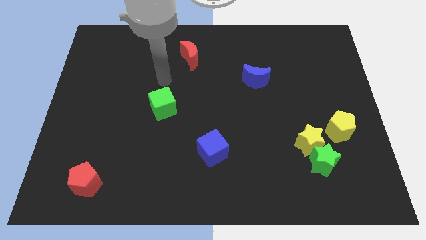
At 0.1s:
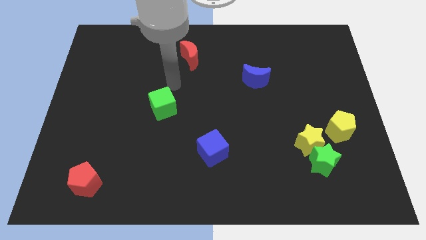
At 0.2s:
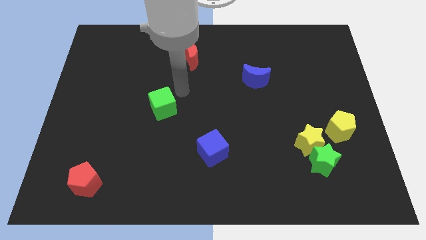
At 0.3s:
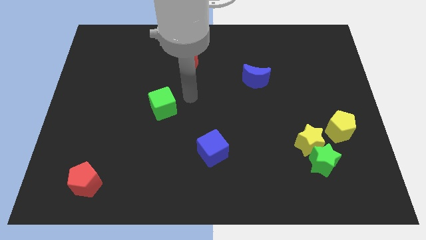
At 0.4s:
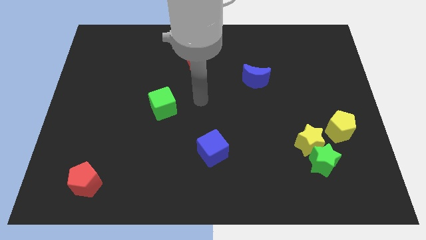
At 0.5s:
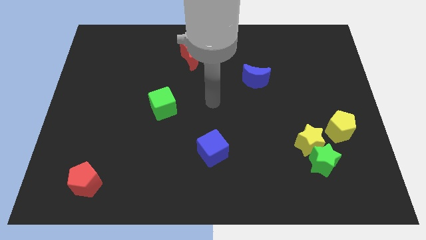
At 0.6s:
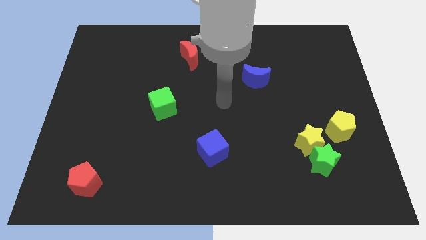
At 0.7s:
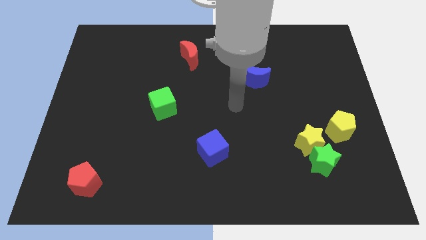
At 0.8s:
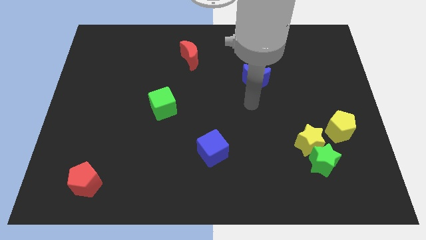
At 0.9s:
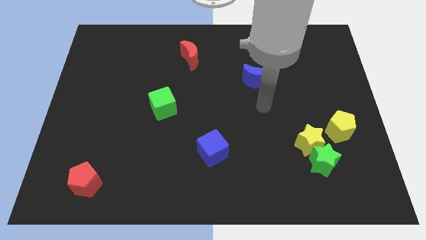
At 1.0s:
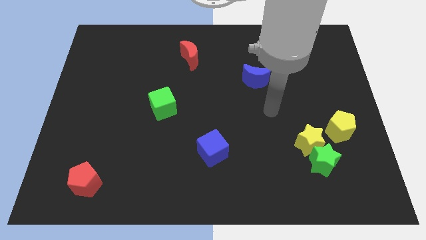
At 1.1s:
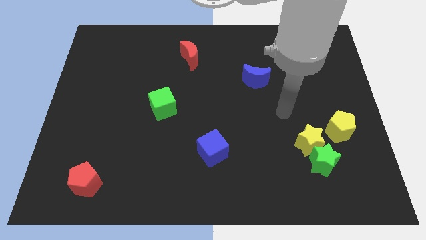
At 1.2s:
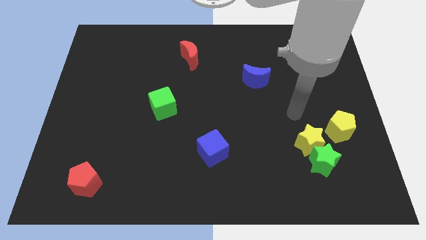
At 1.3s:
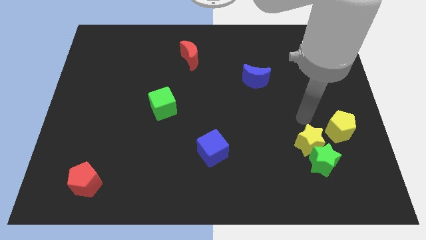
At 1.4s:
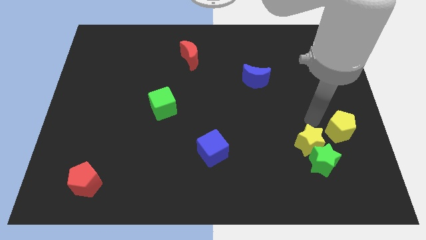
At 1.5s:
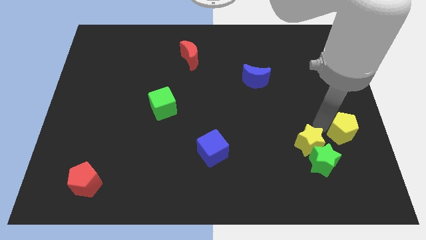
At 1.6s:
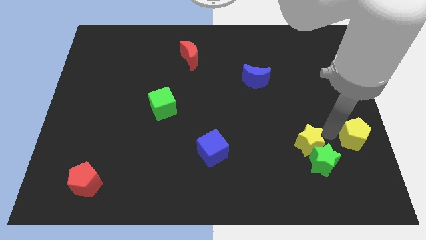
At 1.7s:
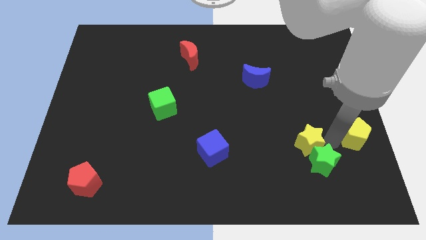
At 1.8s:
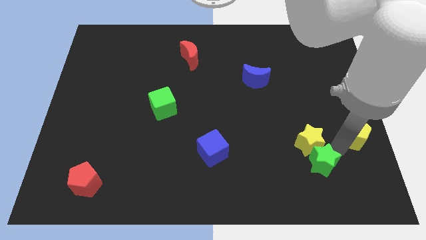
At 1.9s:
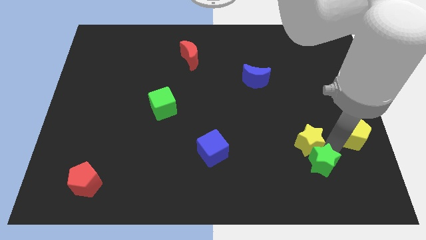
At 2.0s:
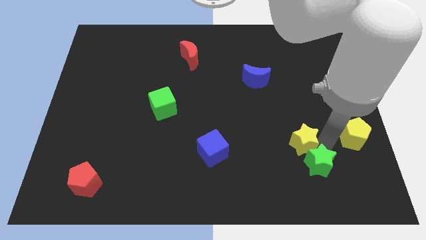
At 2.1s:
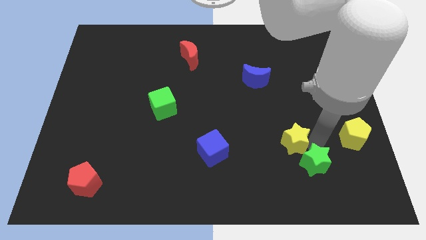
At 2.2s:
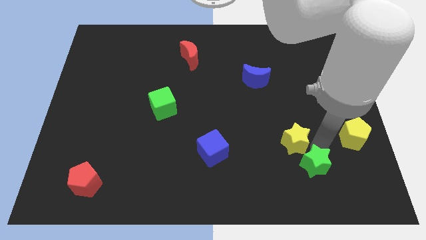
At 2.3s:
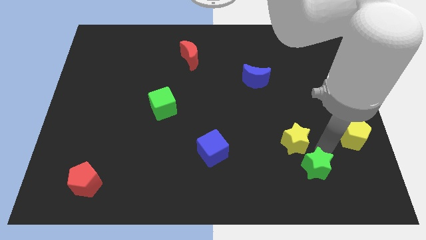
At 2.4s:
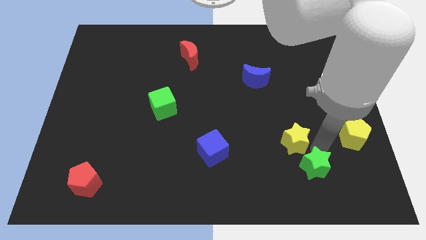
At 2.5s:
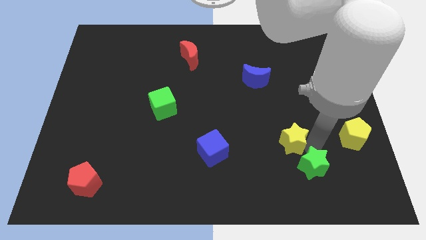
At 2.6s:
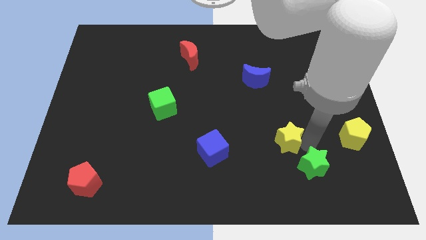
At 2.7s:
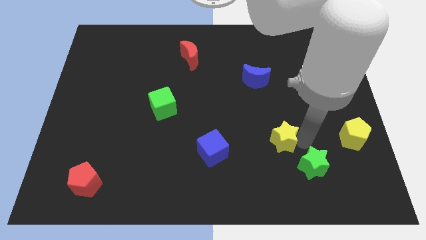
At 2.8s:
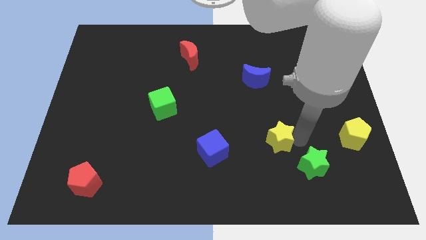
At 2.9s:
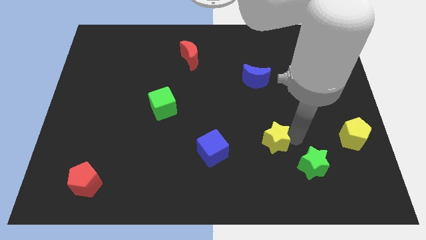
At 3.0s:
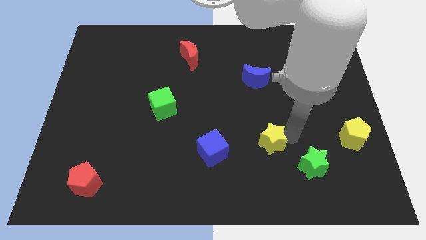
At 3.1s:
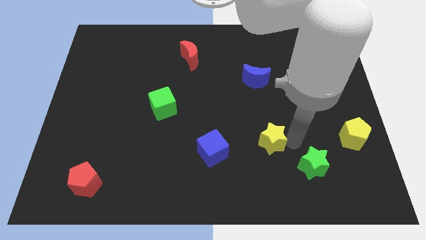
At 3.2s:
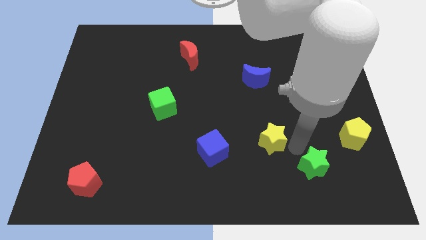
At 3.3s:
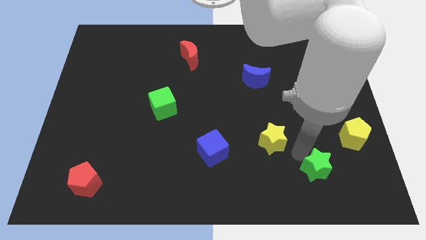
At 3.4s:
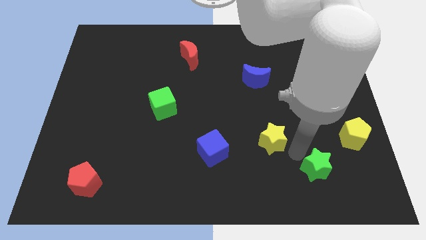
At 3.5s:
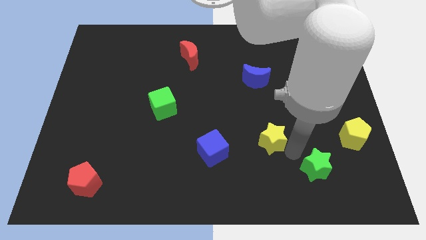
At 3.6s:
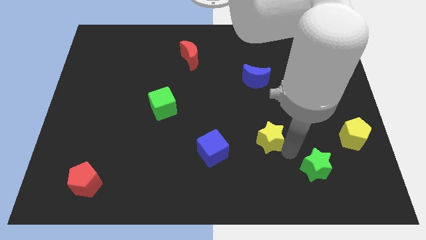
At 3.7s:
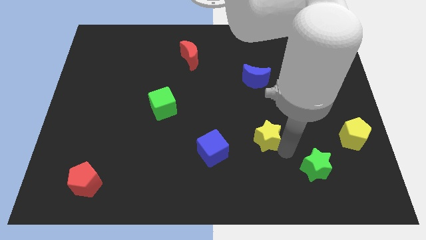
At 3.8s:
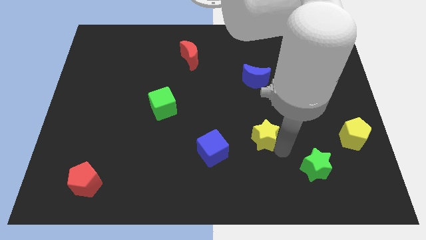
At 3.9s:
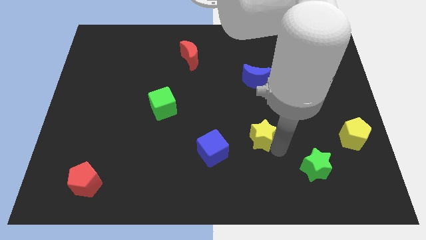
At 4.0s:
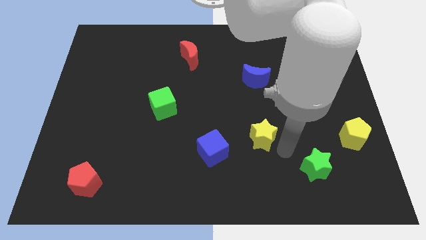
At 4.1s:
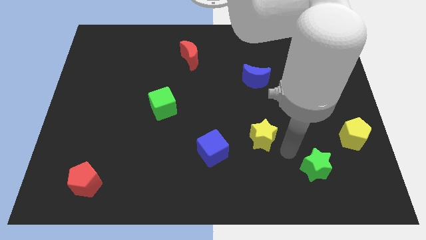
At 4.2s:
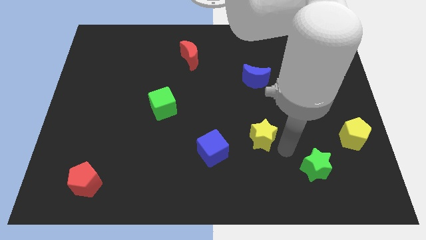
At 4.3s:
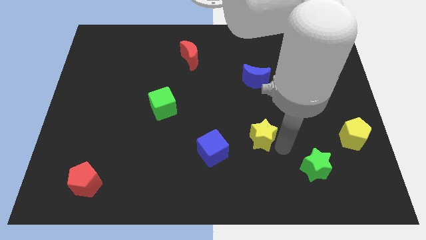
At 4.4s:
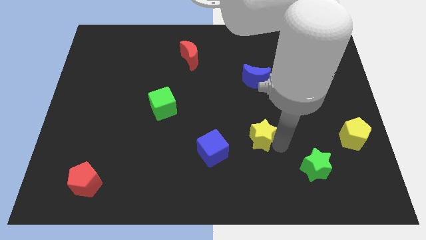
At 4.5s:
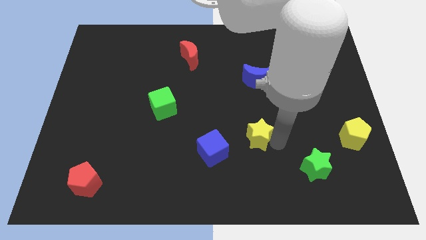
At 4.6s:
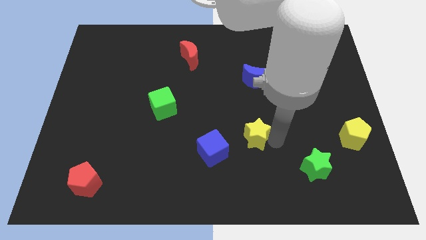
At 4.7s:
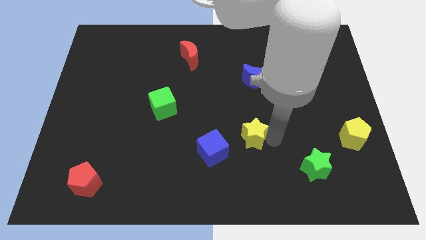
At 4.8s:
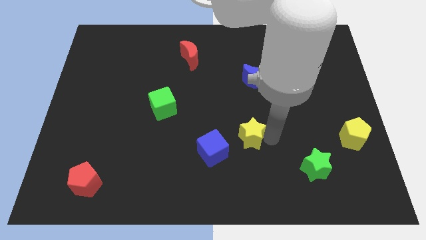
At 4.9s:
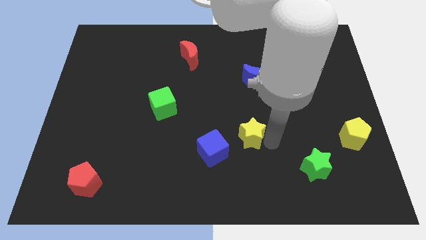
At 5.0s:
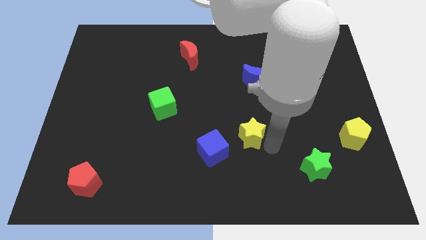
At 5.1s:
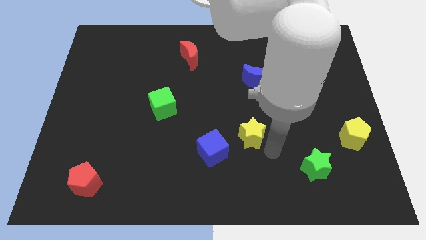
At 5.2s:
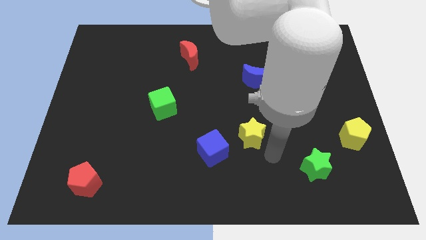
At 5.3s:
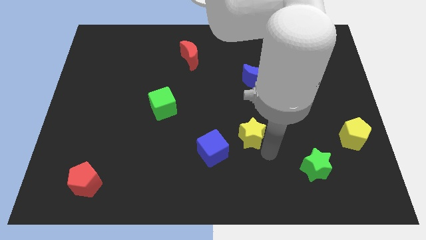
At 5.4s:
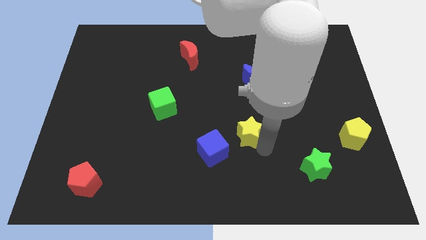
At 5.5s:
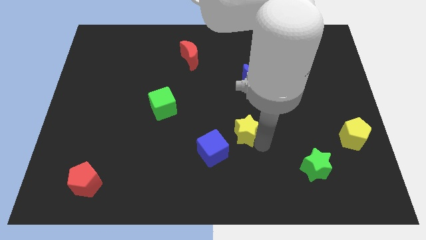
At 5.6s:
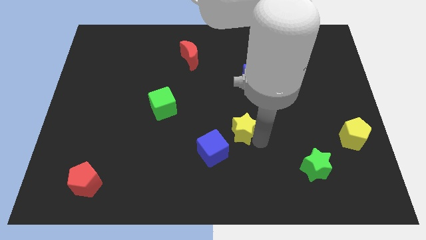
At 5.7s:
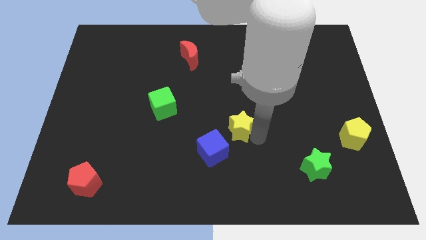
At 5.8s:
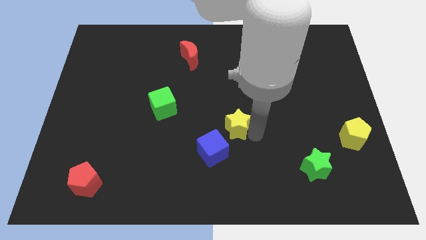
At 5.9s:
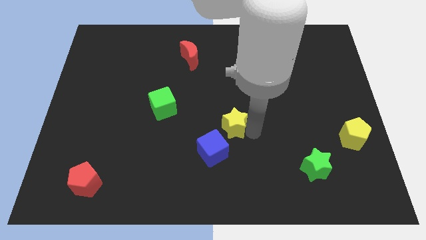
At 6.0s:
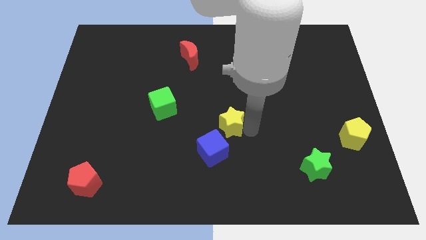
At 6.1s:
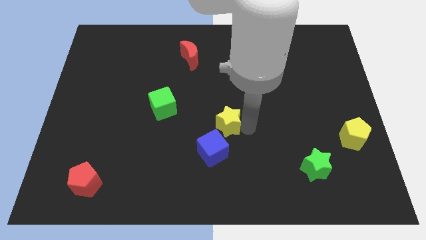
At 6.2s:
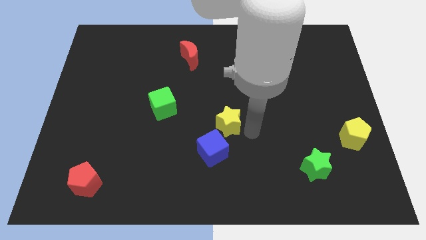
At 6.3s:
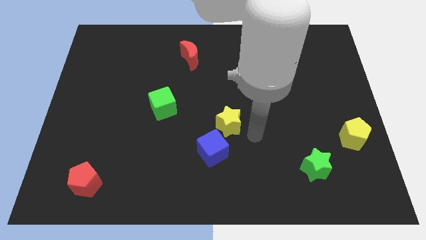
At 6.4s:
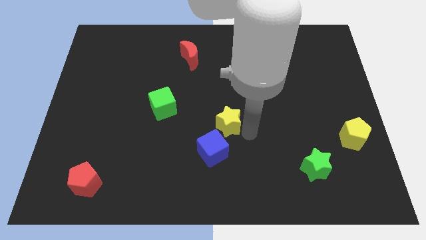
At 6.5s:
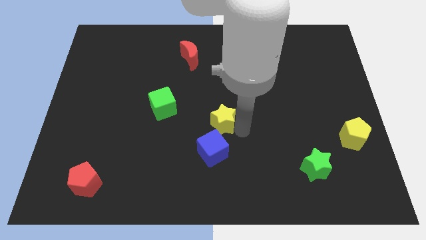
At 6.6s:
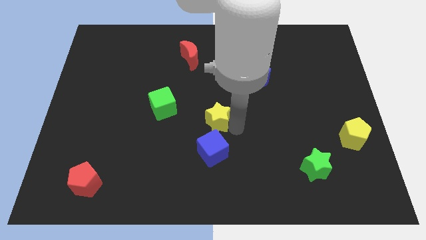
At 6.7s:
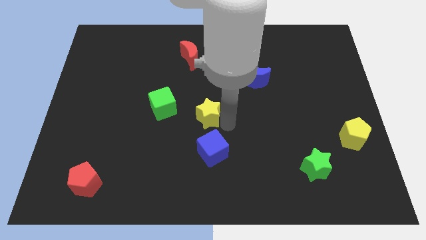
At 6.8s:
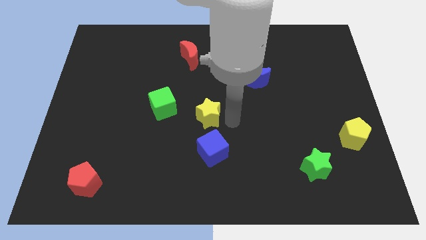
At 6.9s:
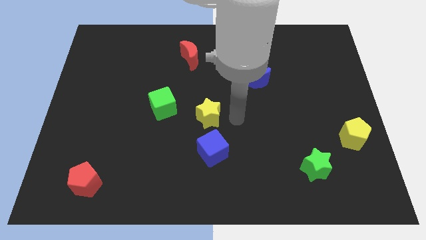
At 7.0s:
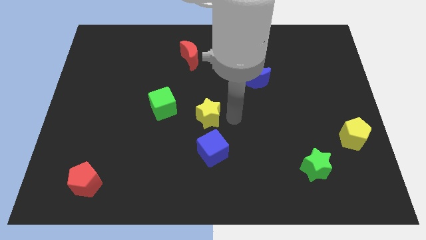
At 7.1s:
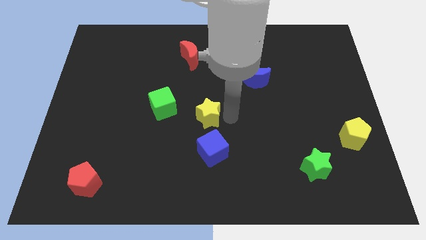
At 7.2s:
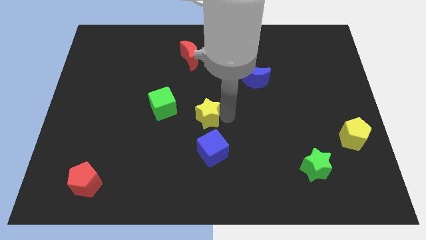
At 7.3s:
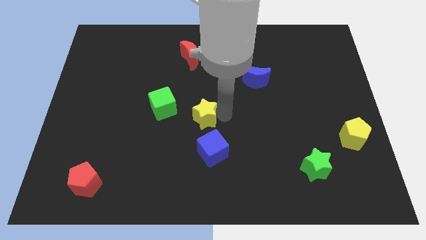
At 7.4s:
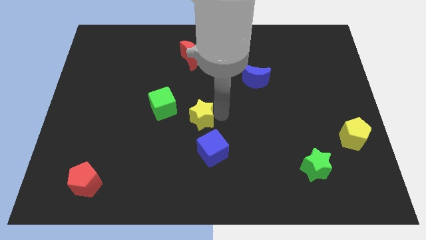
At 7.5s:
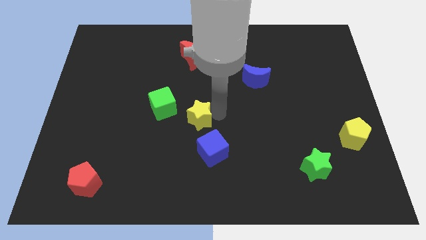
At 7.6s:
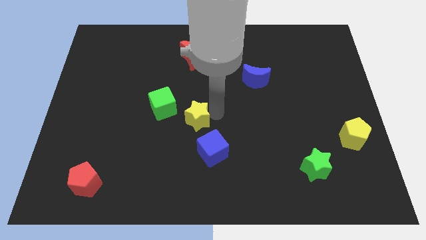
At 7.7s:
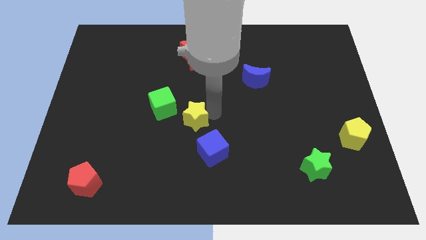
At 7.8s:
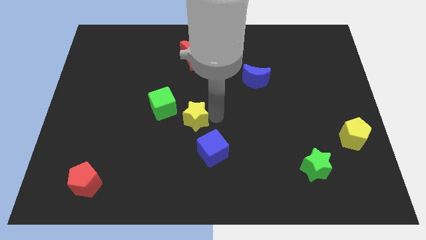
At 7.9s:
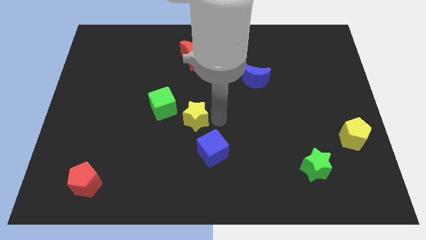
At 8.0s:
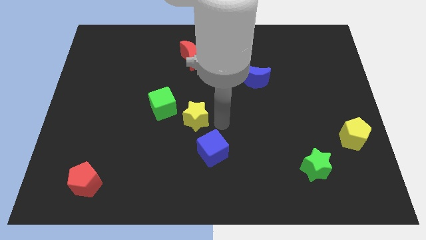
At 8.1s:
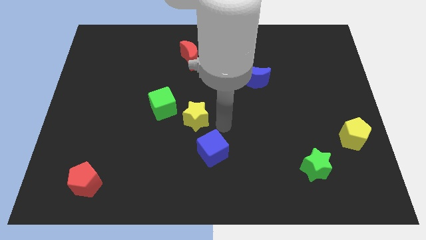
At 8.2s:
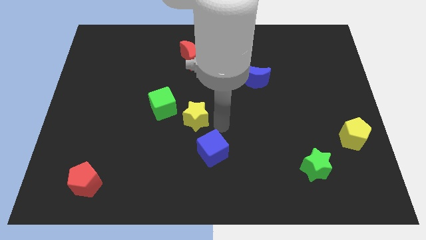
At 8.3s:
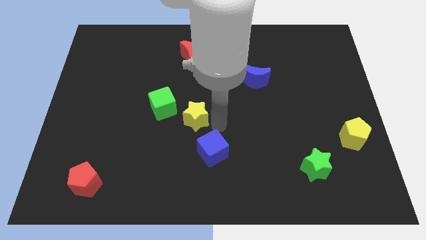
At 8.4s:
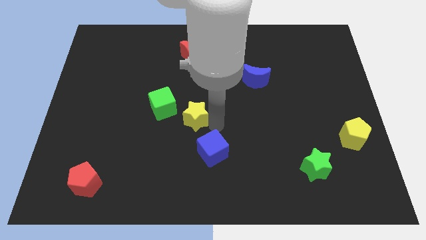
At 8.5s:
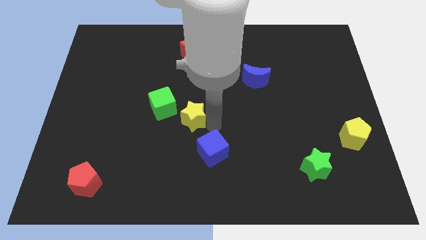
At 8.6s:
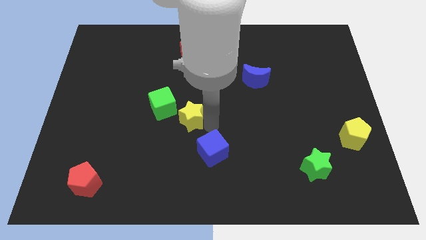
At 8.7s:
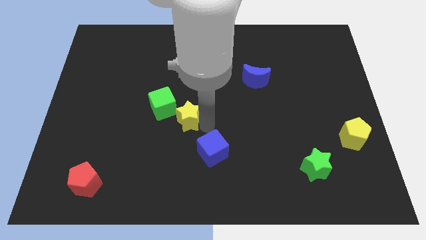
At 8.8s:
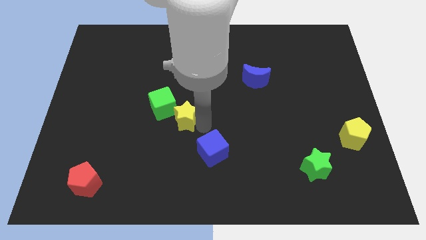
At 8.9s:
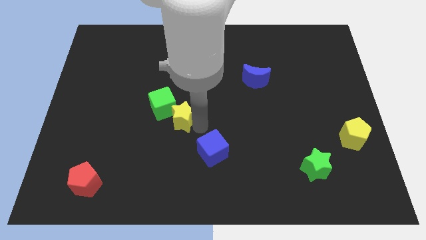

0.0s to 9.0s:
move the yellow star next to the green cube
